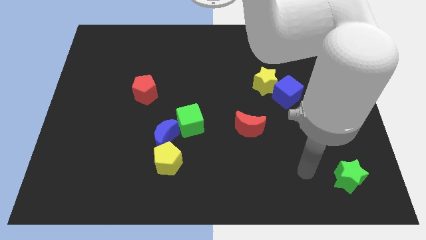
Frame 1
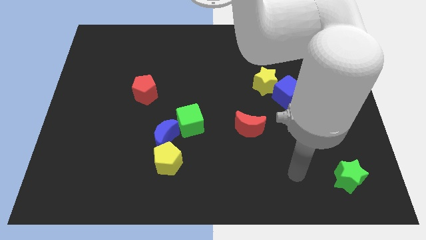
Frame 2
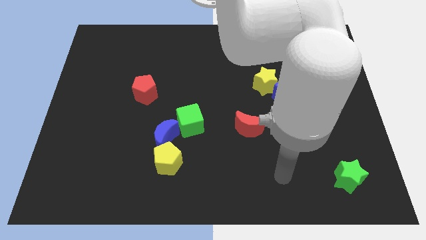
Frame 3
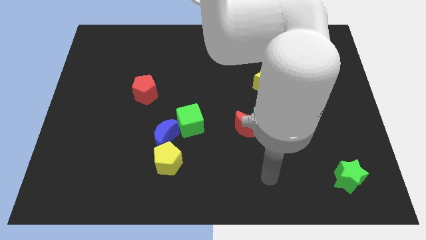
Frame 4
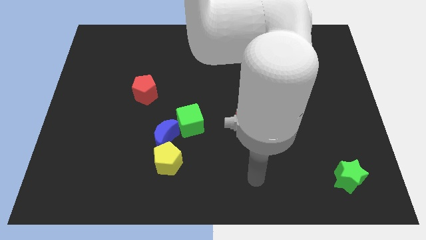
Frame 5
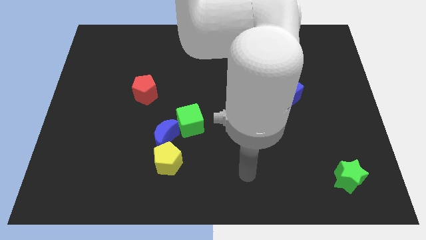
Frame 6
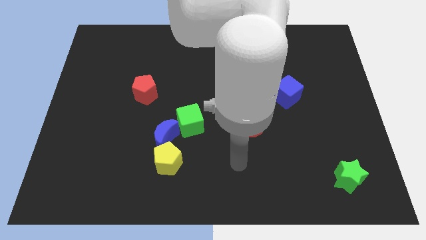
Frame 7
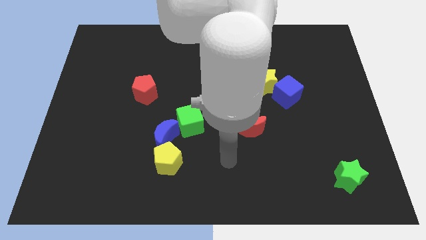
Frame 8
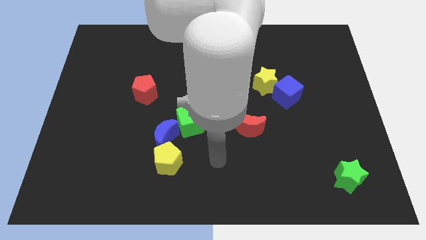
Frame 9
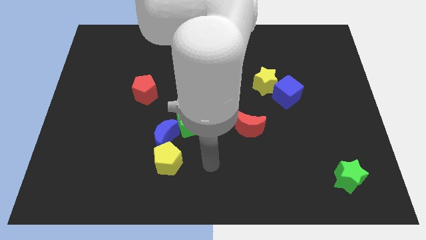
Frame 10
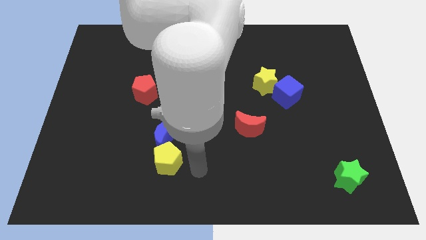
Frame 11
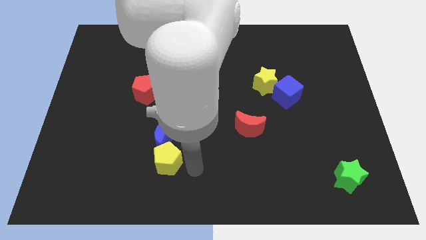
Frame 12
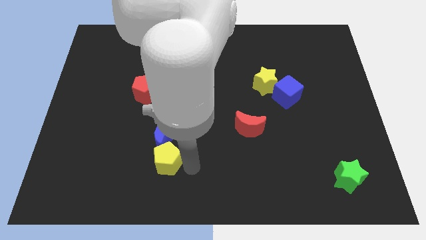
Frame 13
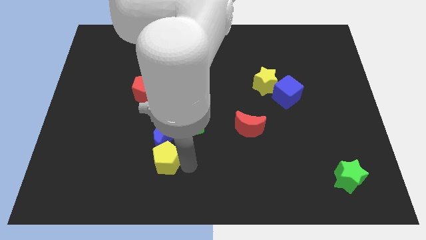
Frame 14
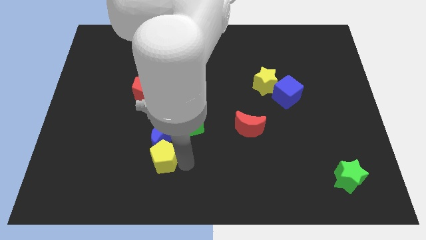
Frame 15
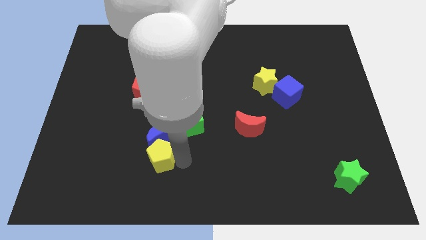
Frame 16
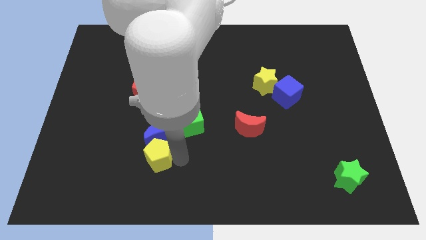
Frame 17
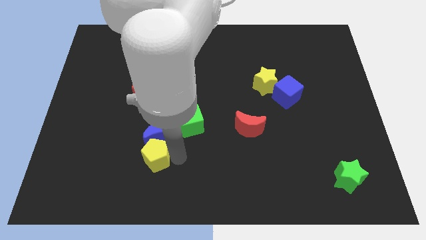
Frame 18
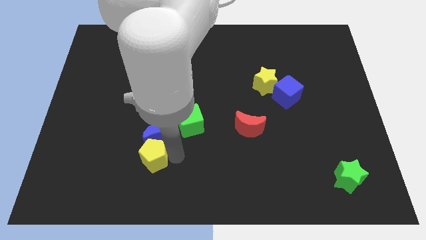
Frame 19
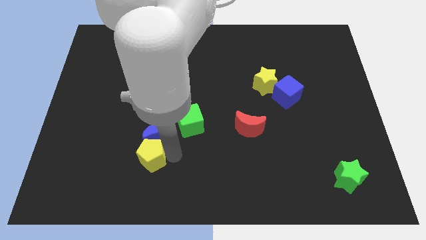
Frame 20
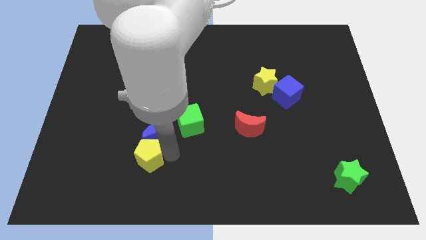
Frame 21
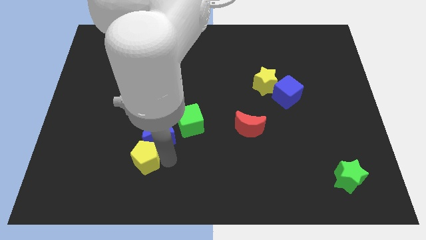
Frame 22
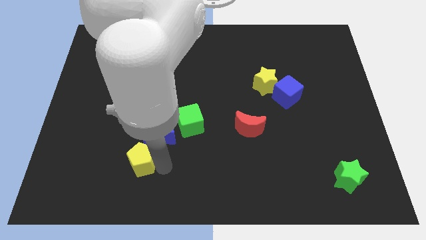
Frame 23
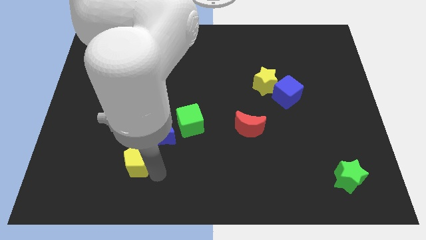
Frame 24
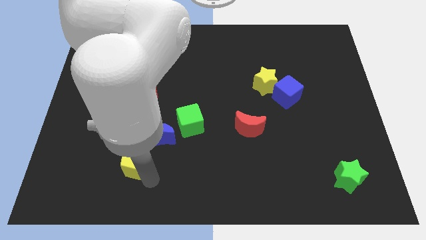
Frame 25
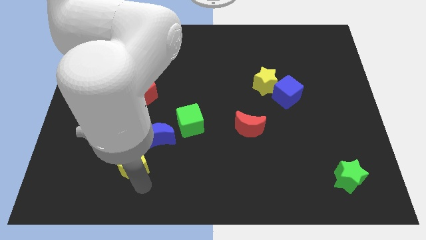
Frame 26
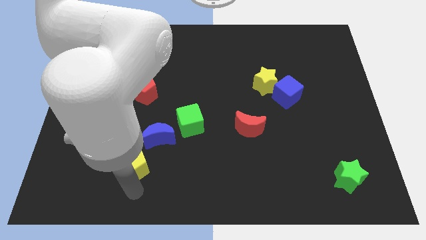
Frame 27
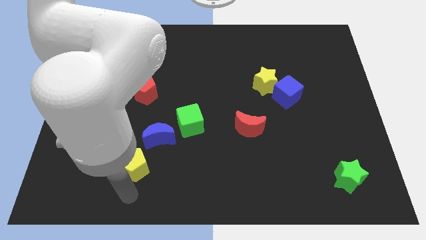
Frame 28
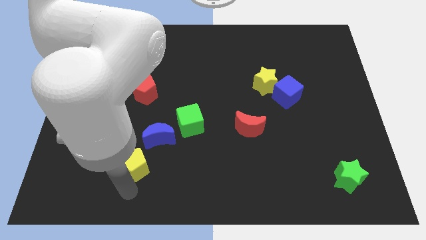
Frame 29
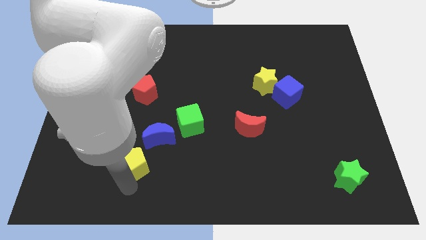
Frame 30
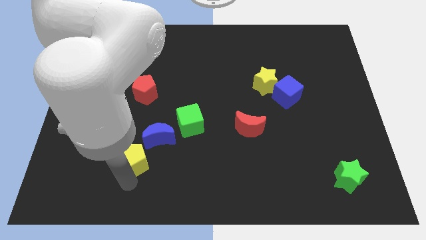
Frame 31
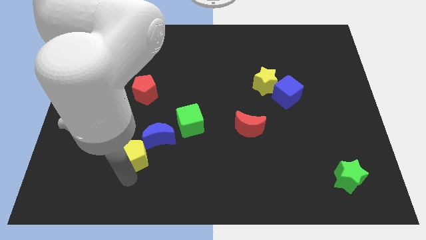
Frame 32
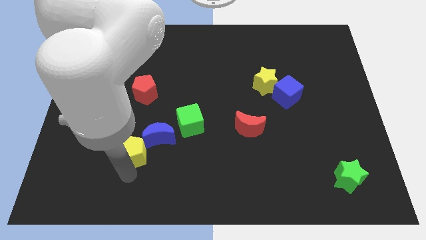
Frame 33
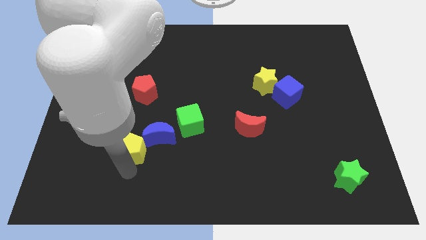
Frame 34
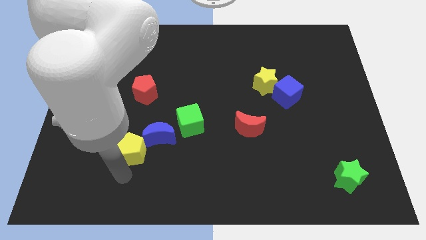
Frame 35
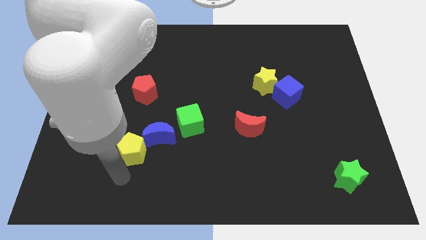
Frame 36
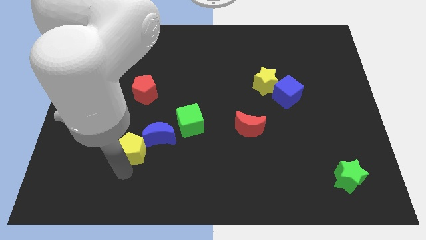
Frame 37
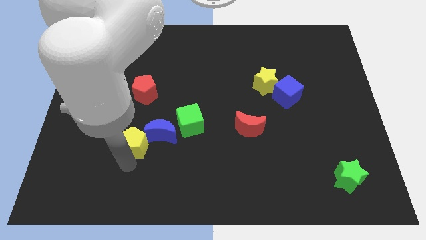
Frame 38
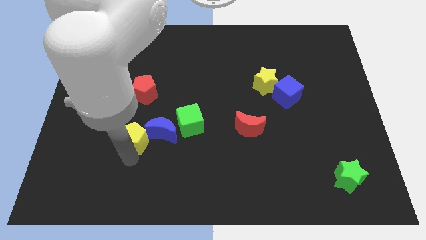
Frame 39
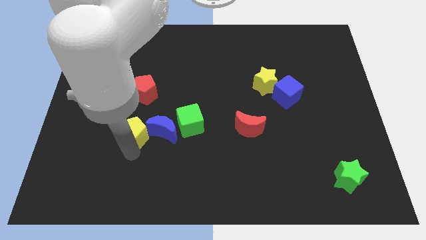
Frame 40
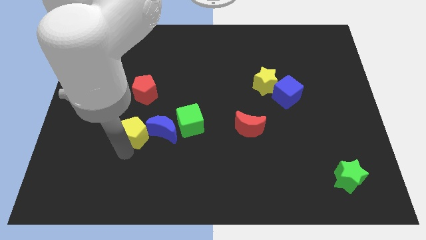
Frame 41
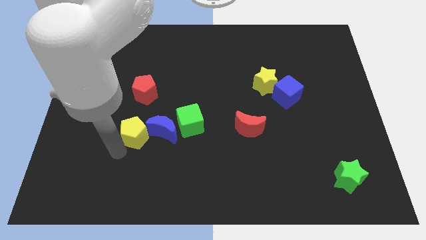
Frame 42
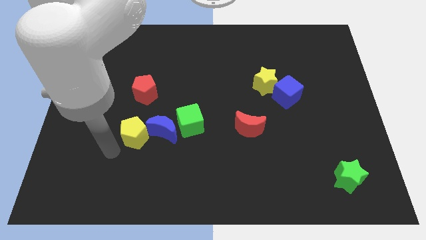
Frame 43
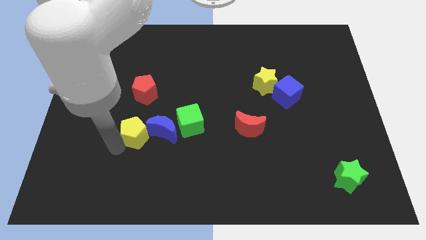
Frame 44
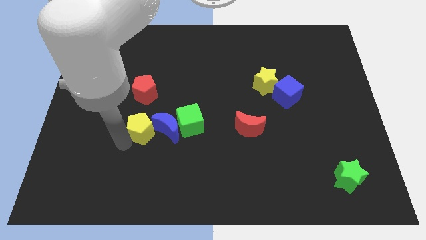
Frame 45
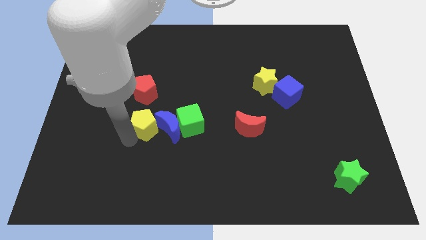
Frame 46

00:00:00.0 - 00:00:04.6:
slightly slide the yellow pentagon upwards

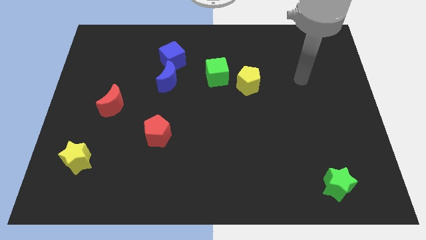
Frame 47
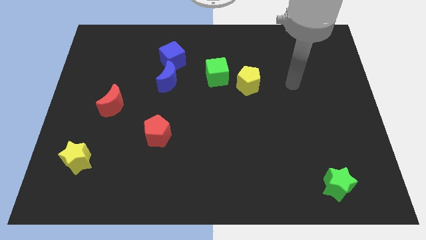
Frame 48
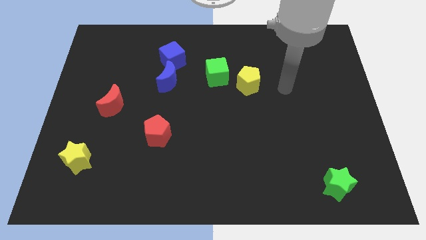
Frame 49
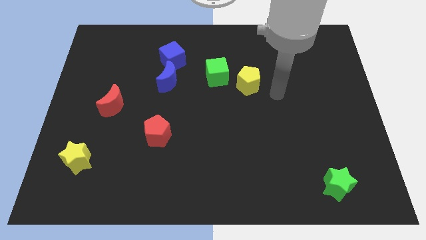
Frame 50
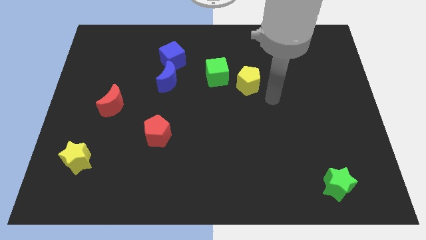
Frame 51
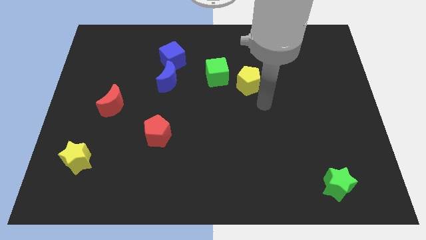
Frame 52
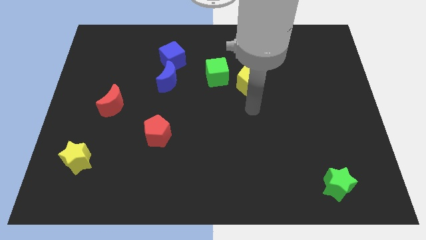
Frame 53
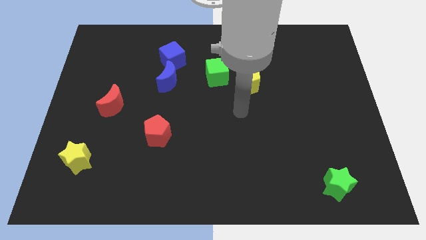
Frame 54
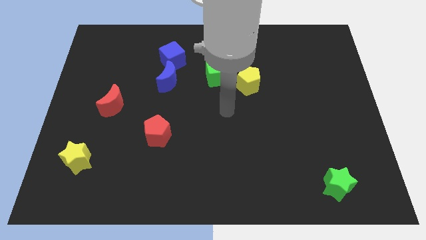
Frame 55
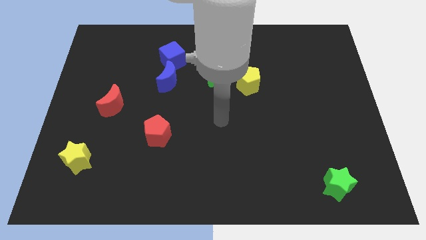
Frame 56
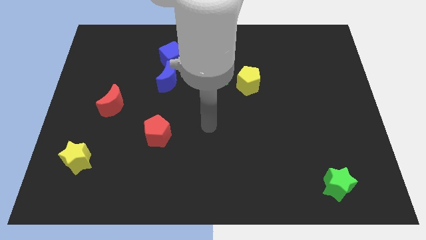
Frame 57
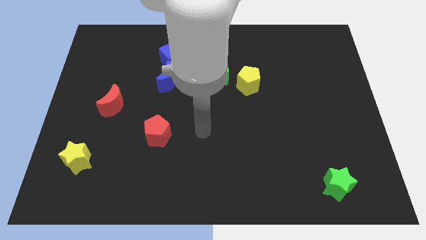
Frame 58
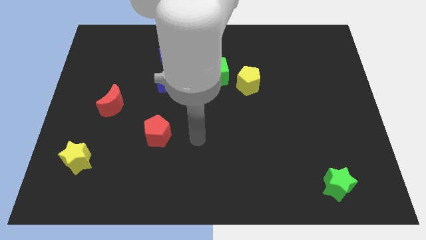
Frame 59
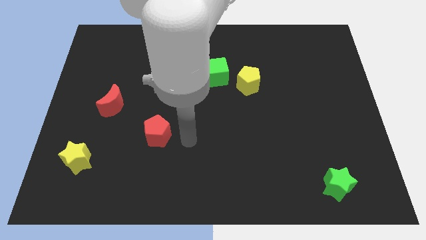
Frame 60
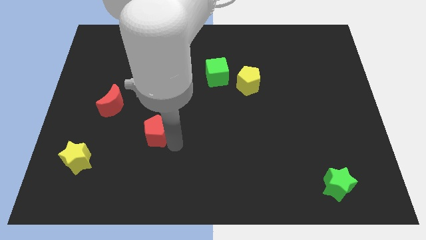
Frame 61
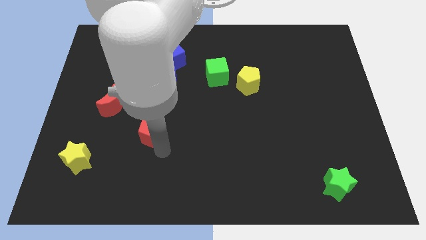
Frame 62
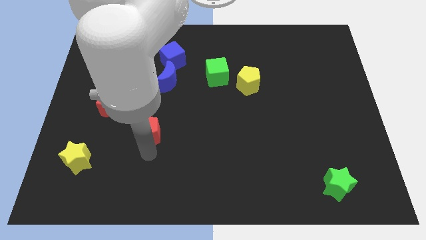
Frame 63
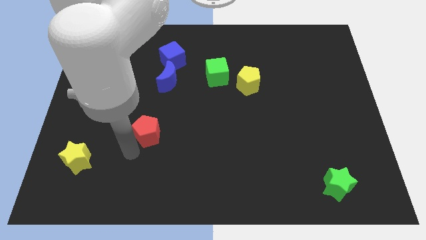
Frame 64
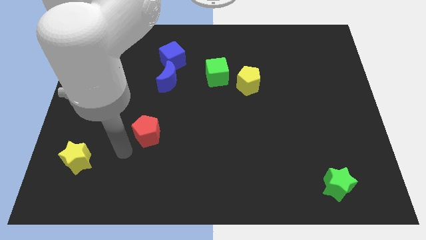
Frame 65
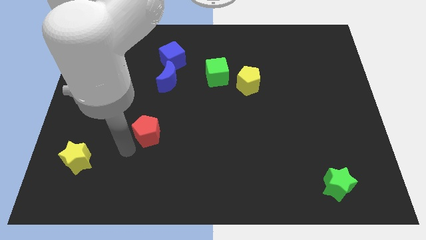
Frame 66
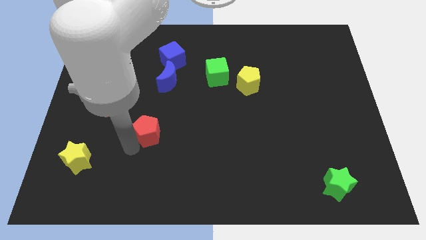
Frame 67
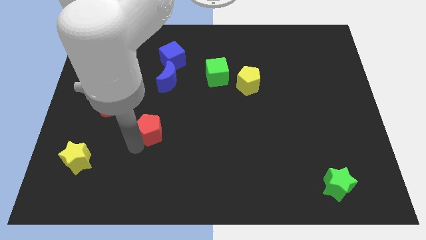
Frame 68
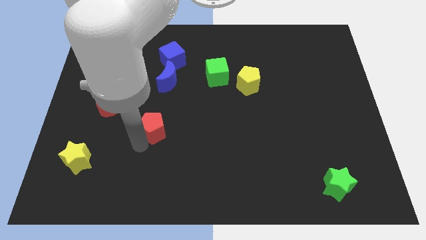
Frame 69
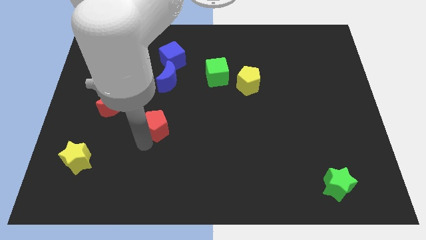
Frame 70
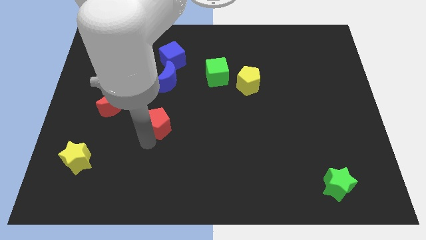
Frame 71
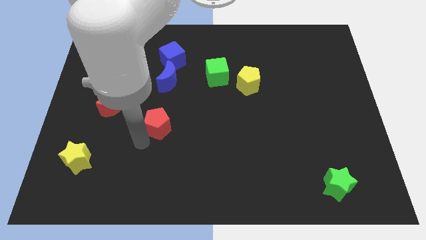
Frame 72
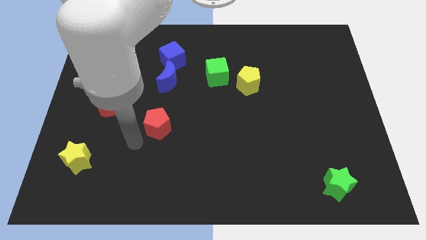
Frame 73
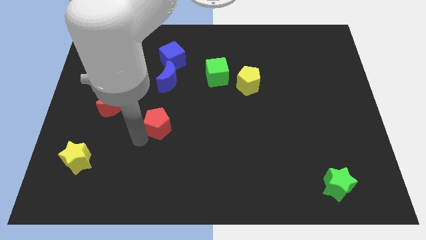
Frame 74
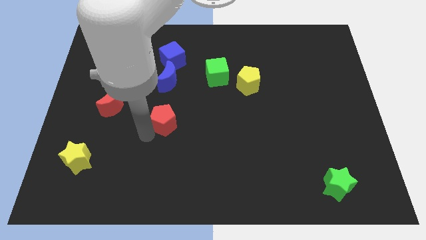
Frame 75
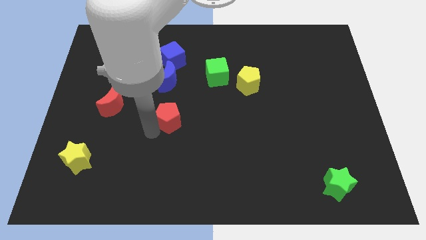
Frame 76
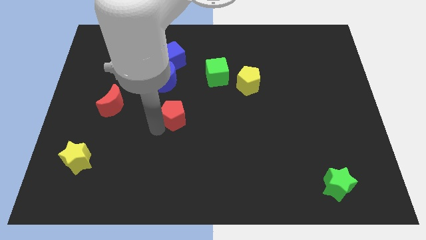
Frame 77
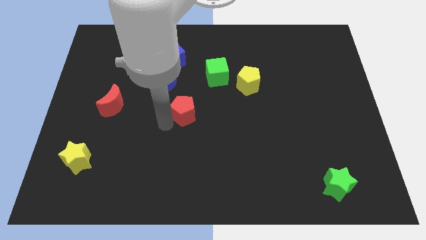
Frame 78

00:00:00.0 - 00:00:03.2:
slide the red pentagon up and then to the right slightly

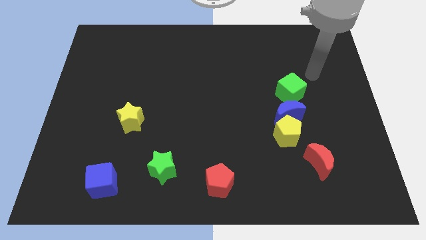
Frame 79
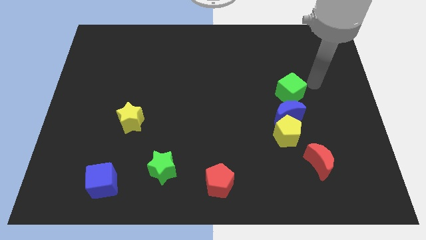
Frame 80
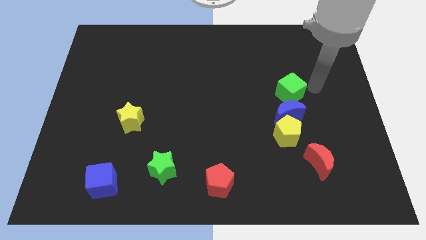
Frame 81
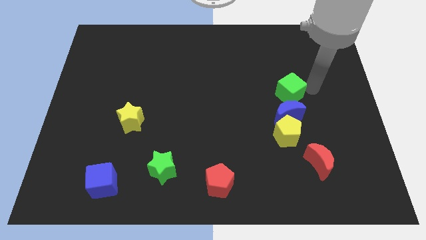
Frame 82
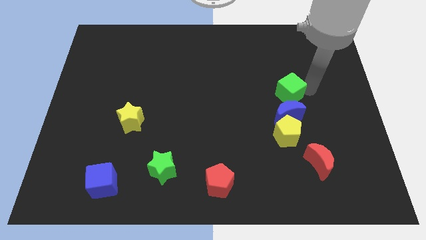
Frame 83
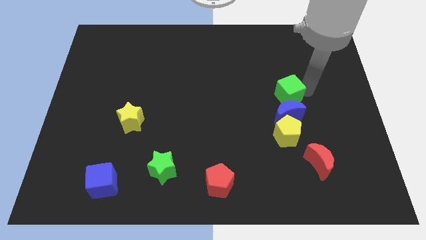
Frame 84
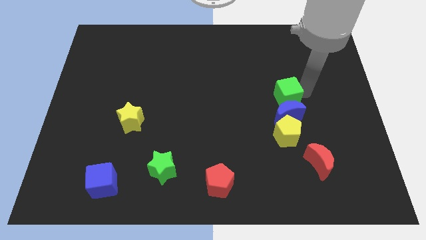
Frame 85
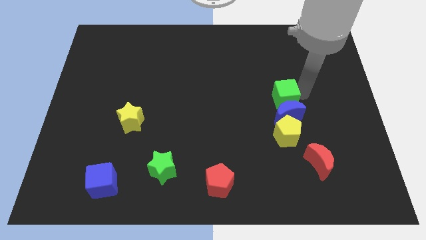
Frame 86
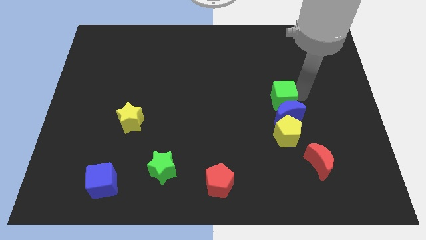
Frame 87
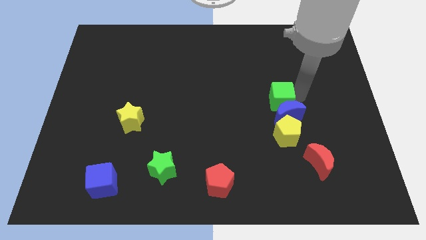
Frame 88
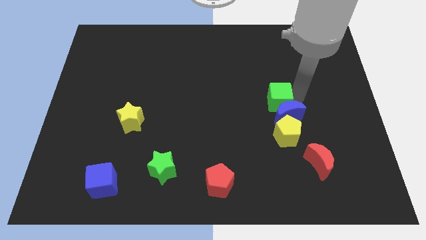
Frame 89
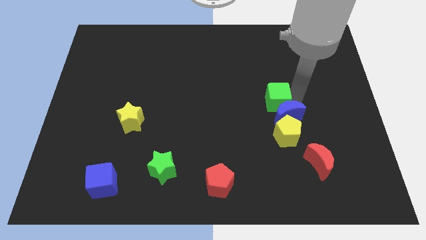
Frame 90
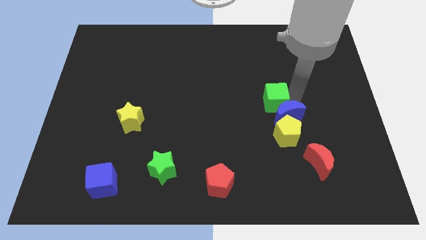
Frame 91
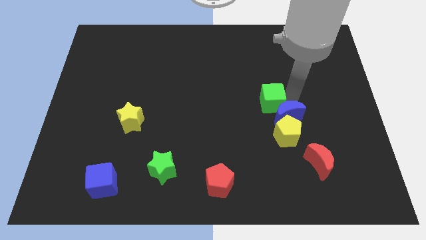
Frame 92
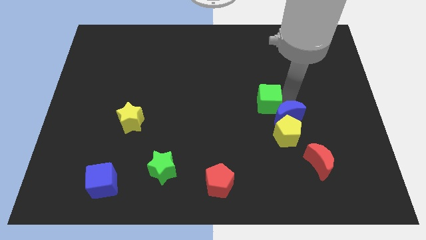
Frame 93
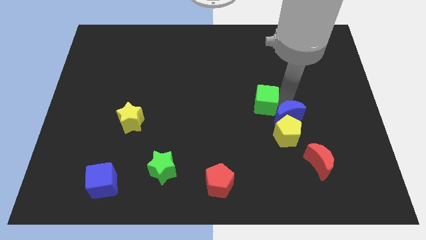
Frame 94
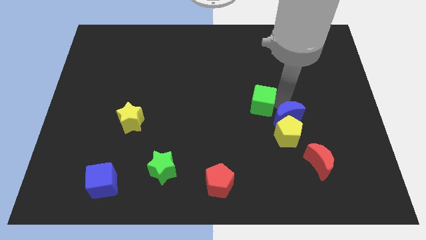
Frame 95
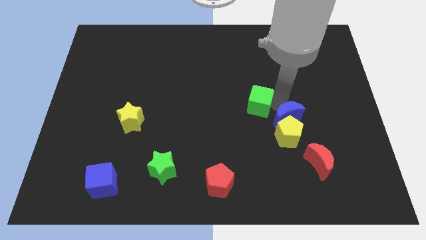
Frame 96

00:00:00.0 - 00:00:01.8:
slide the green cube left a little
